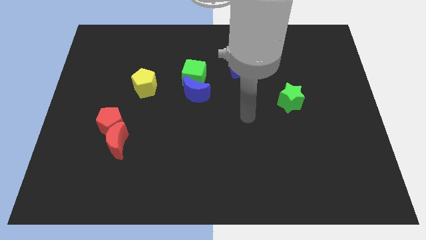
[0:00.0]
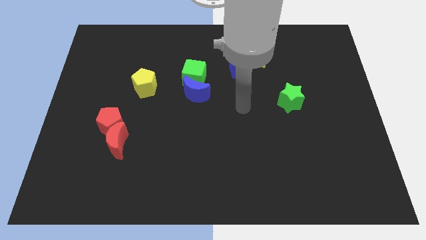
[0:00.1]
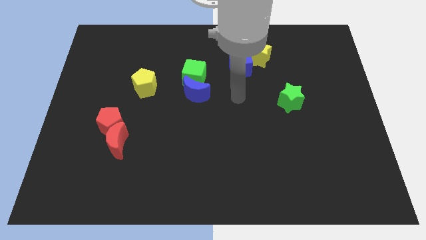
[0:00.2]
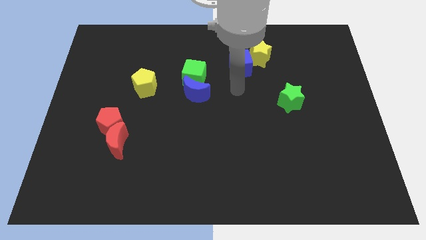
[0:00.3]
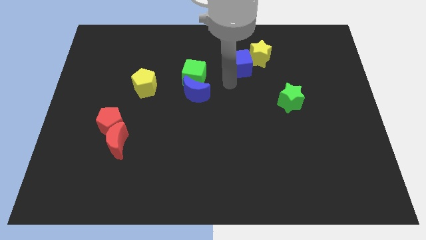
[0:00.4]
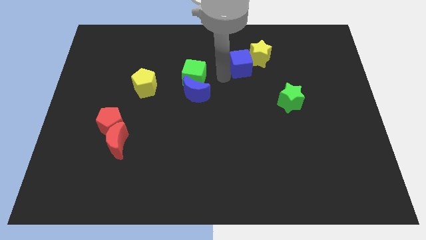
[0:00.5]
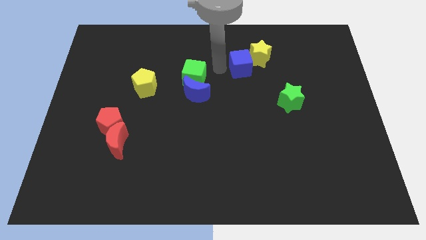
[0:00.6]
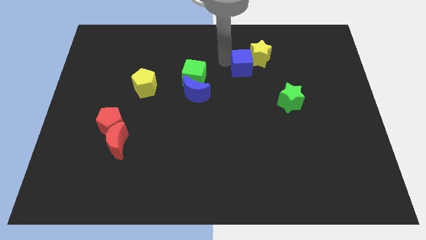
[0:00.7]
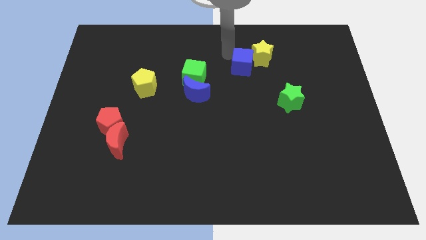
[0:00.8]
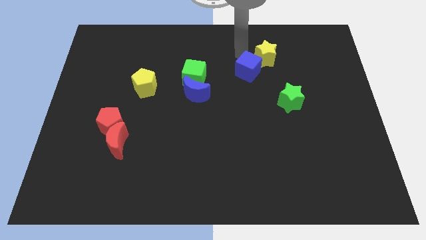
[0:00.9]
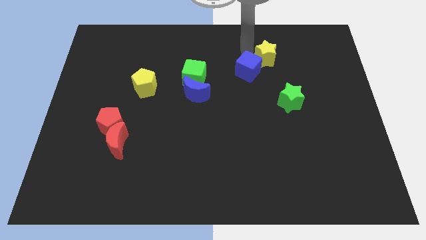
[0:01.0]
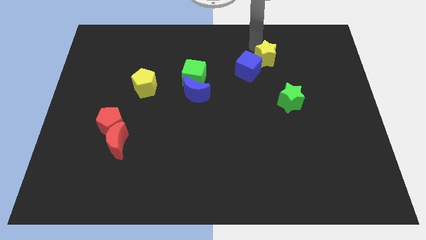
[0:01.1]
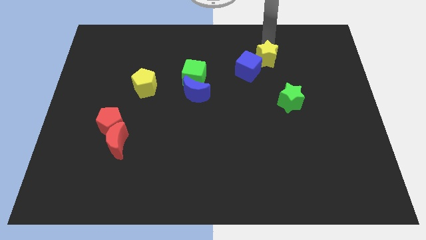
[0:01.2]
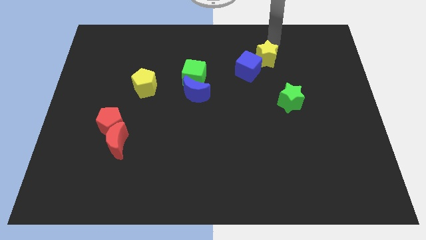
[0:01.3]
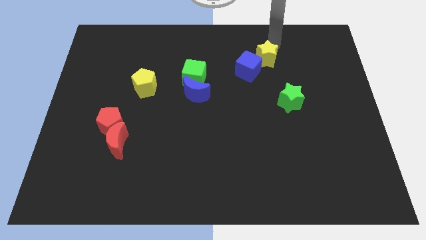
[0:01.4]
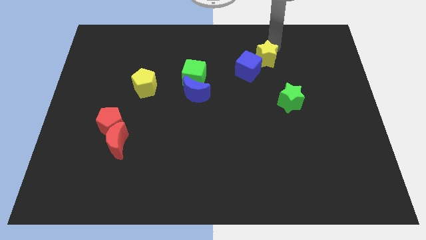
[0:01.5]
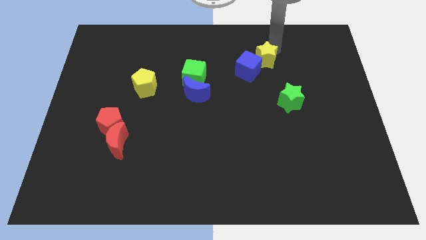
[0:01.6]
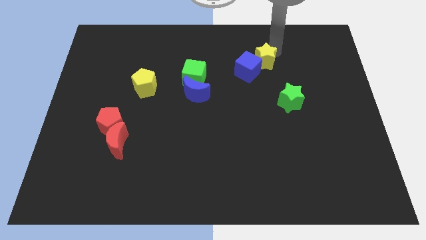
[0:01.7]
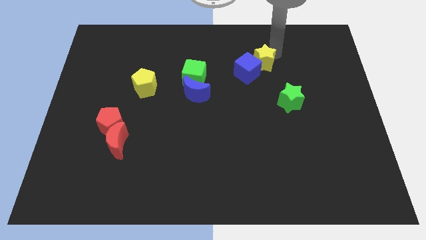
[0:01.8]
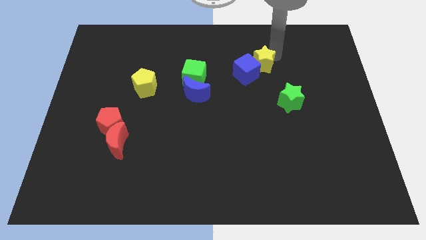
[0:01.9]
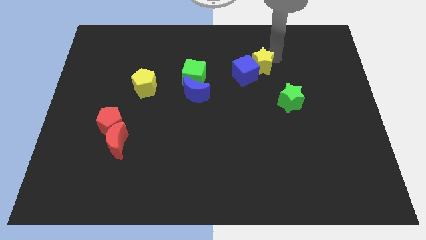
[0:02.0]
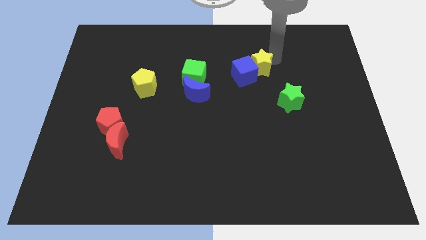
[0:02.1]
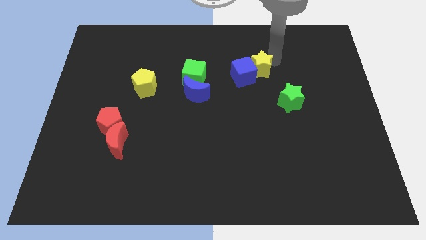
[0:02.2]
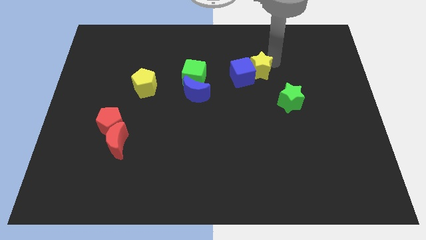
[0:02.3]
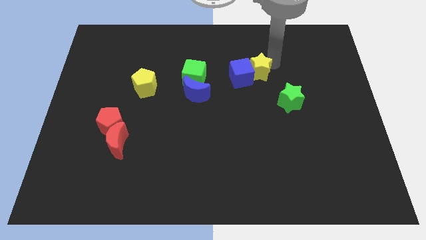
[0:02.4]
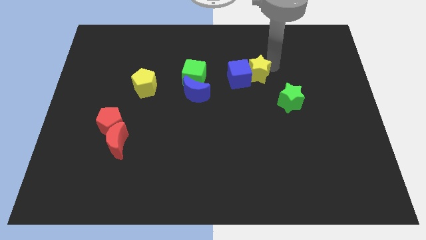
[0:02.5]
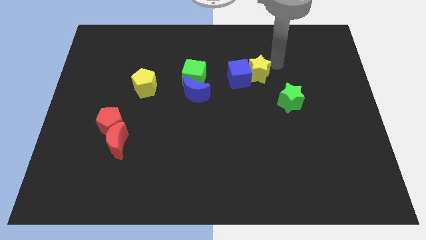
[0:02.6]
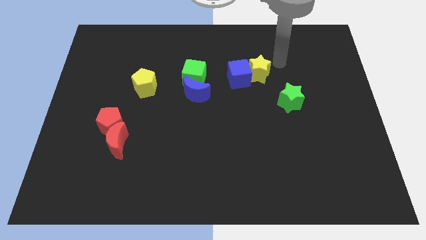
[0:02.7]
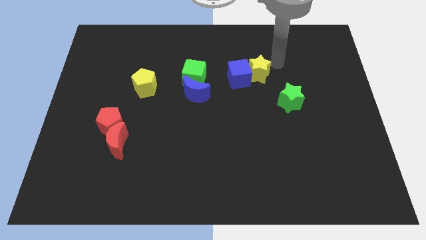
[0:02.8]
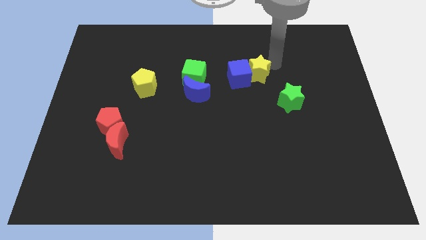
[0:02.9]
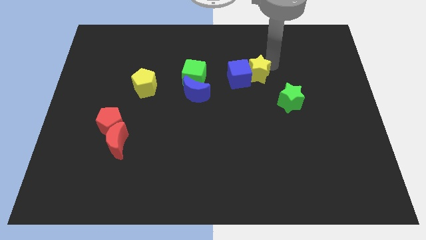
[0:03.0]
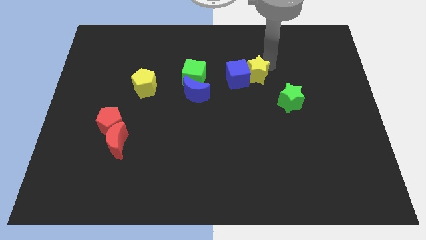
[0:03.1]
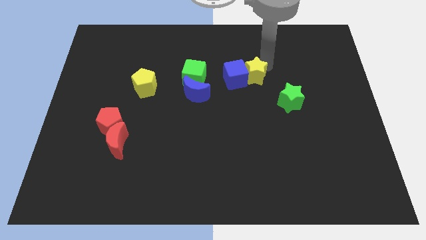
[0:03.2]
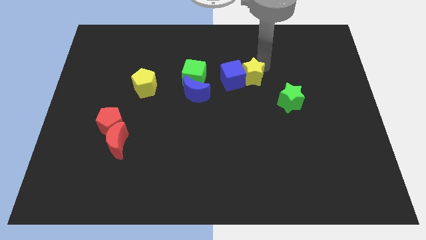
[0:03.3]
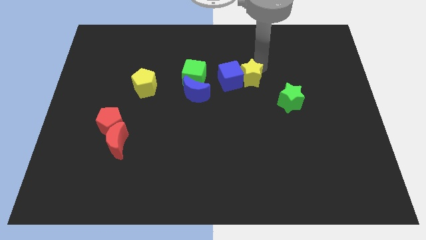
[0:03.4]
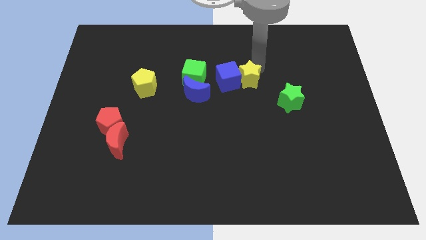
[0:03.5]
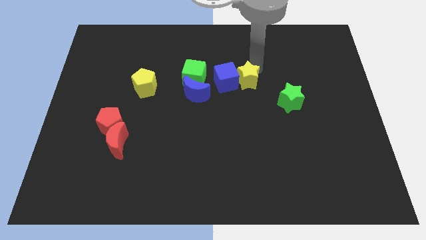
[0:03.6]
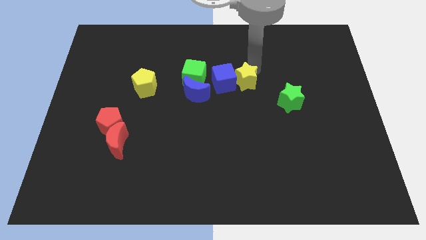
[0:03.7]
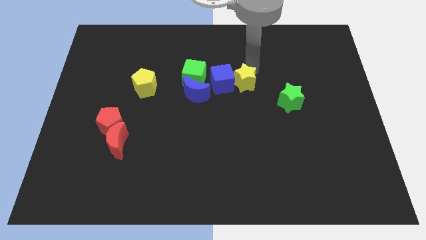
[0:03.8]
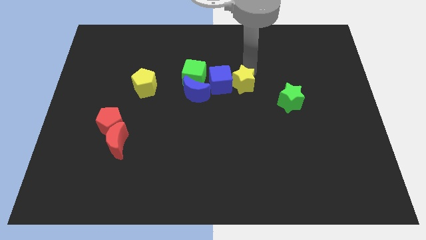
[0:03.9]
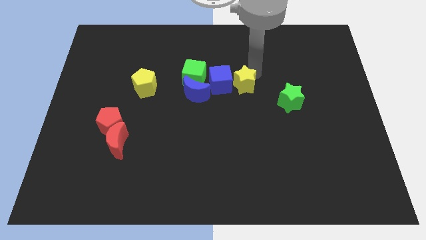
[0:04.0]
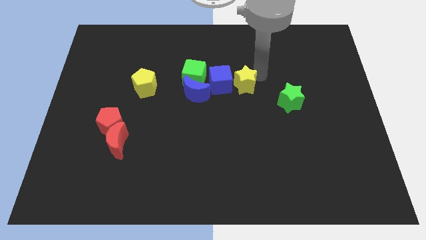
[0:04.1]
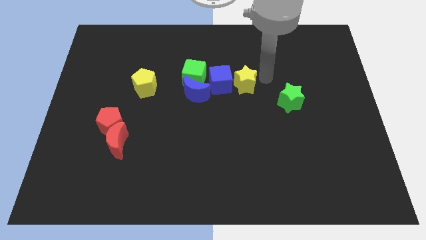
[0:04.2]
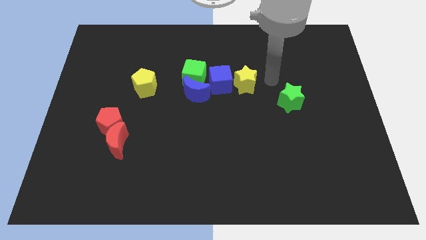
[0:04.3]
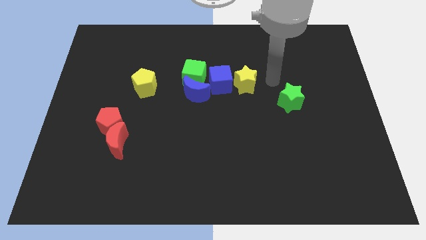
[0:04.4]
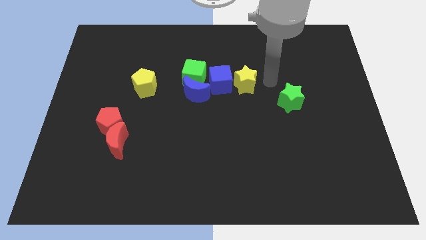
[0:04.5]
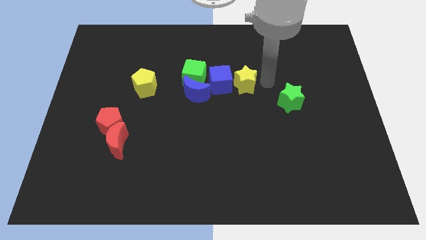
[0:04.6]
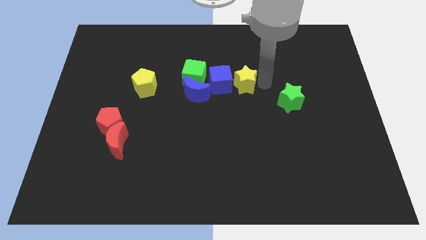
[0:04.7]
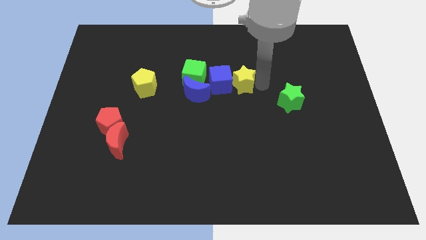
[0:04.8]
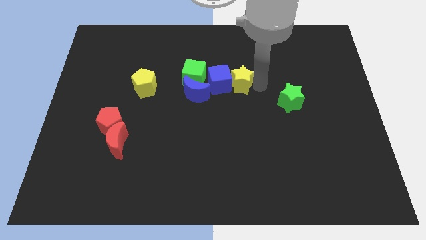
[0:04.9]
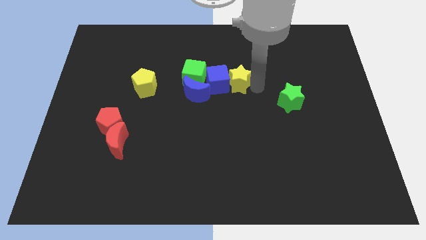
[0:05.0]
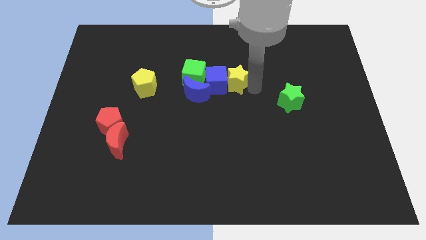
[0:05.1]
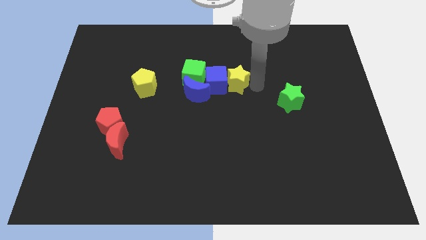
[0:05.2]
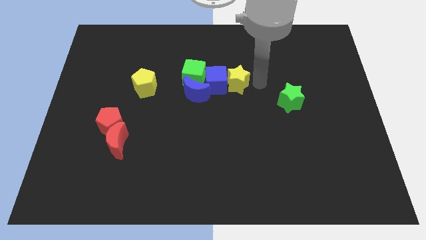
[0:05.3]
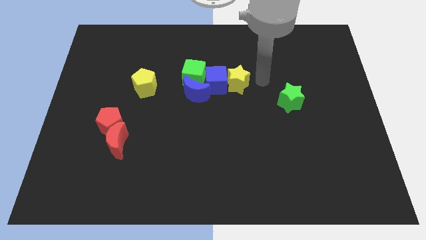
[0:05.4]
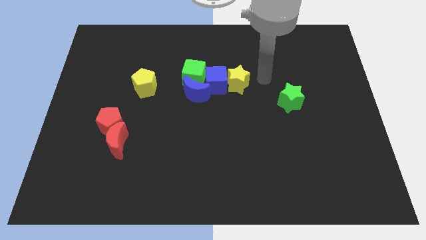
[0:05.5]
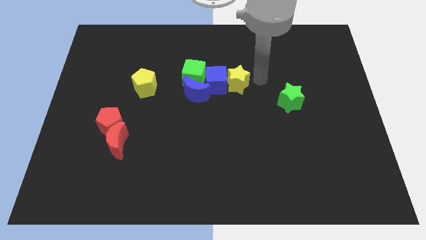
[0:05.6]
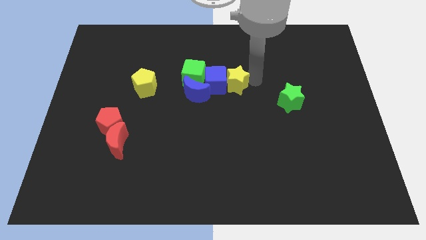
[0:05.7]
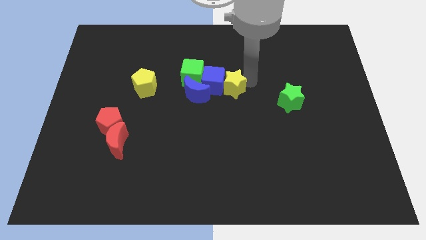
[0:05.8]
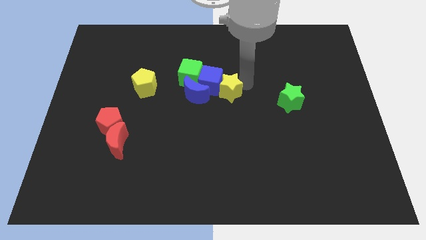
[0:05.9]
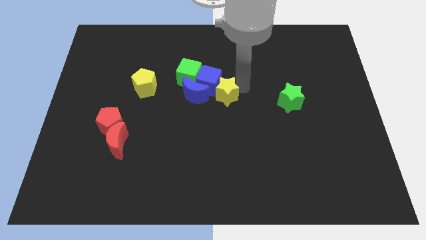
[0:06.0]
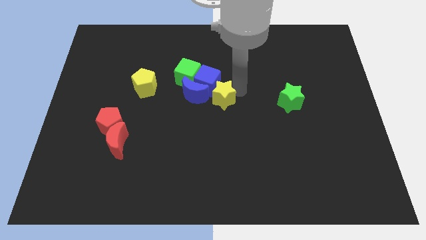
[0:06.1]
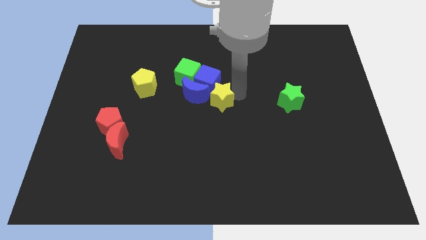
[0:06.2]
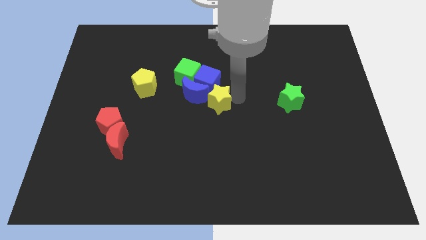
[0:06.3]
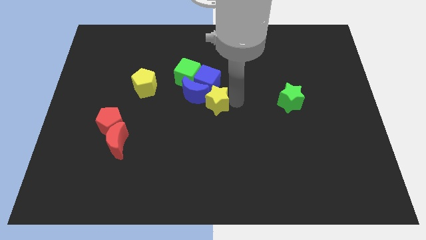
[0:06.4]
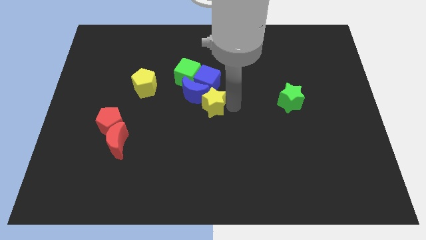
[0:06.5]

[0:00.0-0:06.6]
slide the yellow star next to the blue moon
